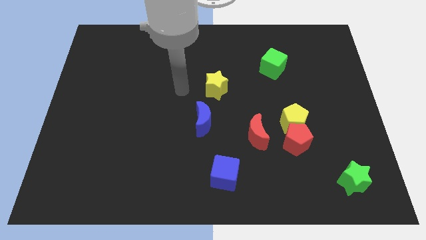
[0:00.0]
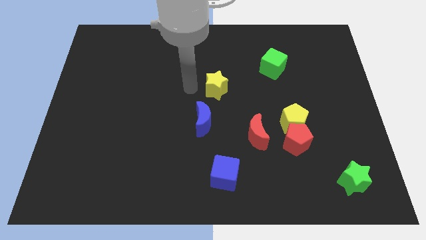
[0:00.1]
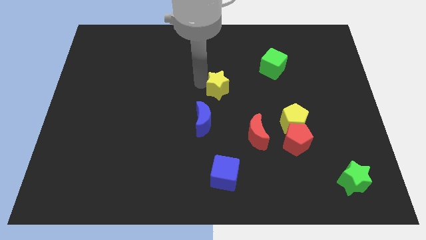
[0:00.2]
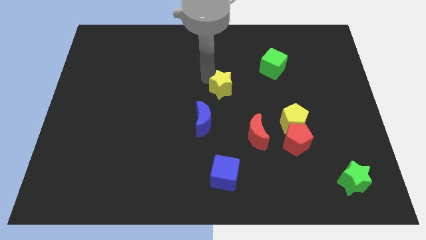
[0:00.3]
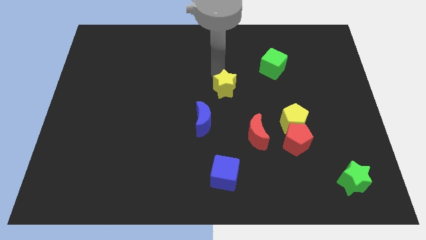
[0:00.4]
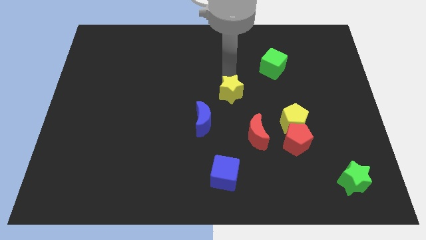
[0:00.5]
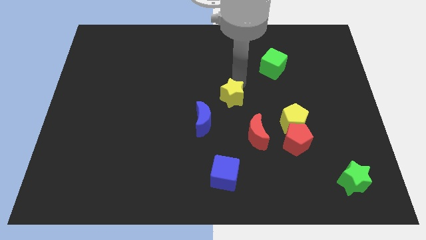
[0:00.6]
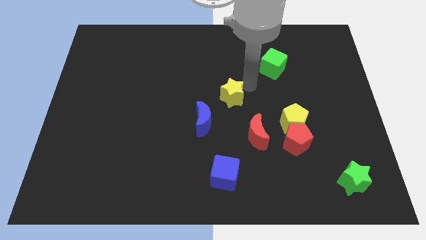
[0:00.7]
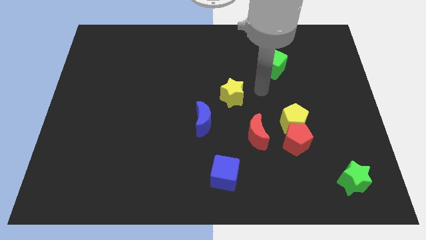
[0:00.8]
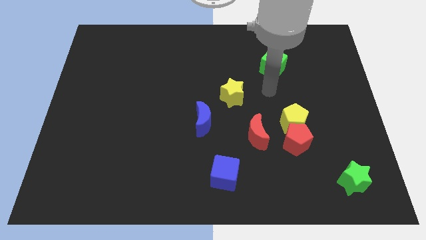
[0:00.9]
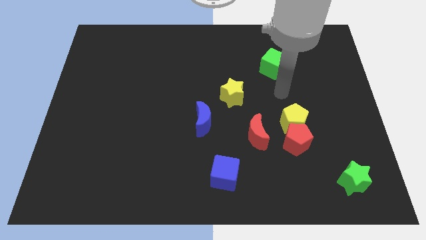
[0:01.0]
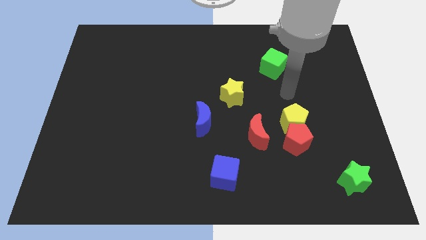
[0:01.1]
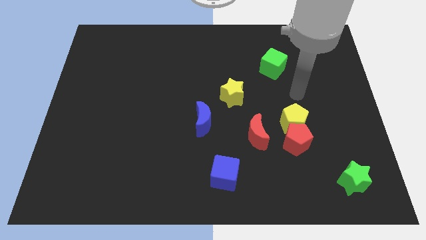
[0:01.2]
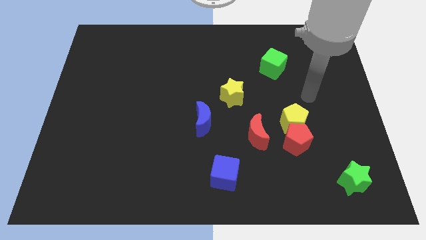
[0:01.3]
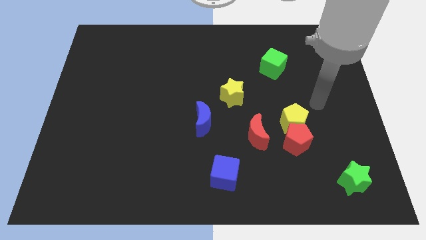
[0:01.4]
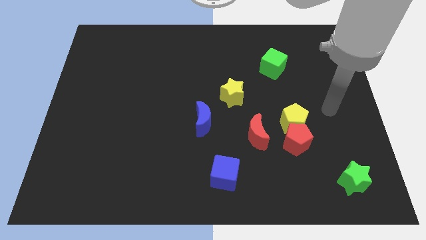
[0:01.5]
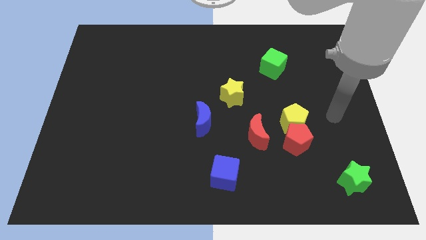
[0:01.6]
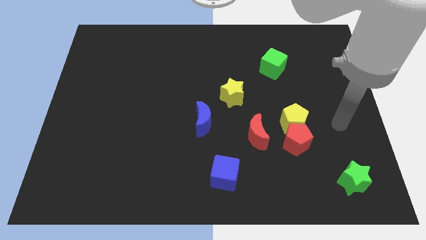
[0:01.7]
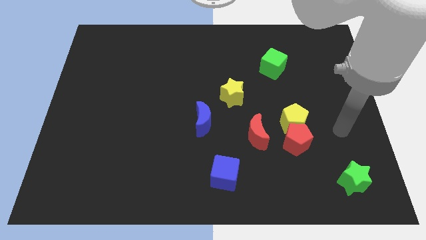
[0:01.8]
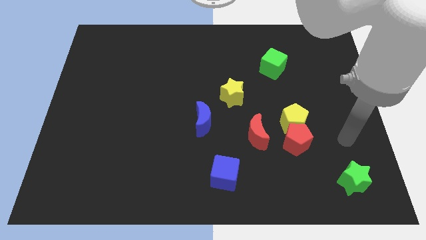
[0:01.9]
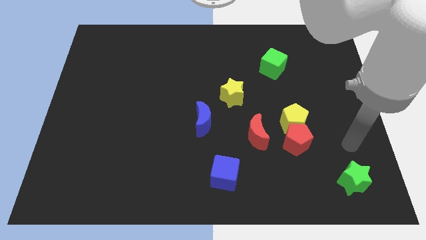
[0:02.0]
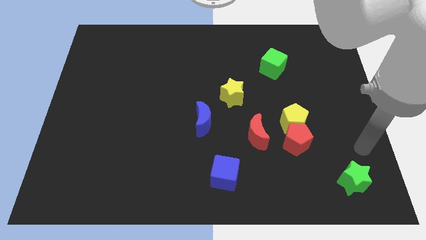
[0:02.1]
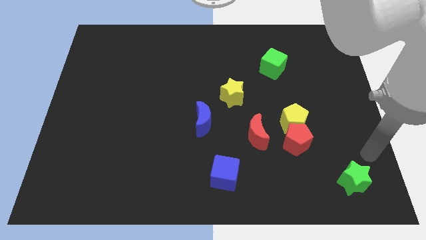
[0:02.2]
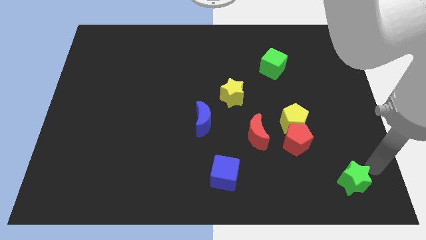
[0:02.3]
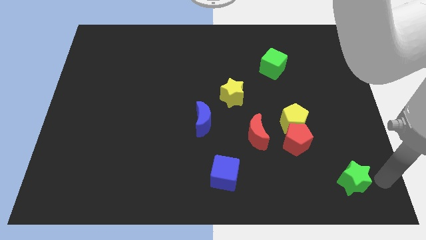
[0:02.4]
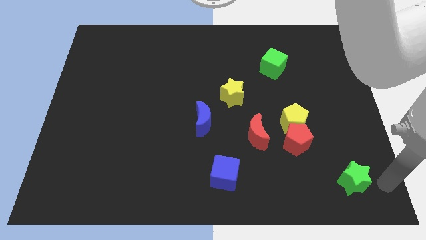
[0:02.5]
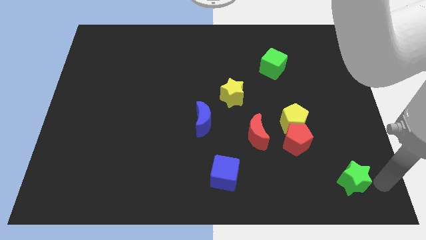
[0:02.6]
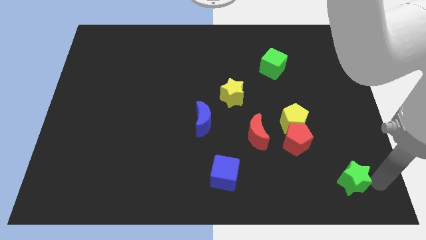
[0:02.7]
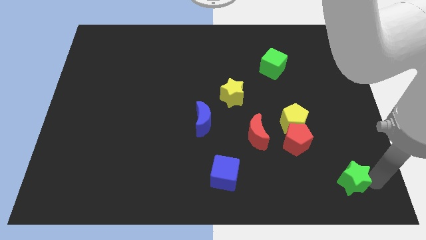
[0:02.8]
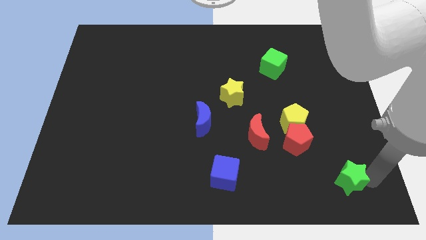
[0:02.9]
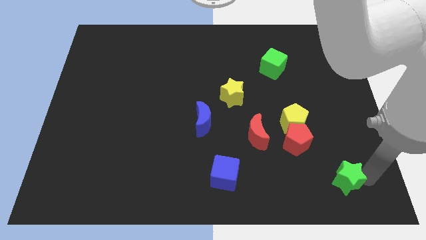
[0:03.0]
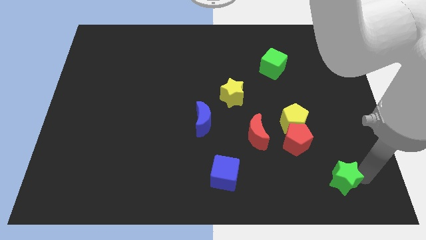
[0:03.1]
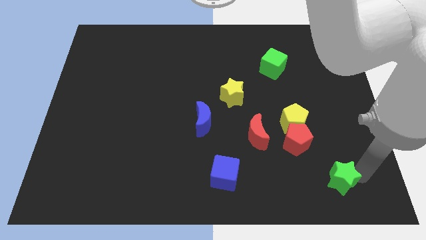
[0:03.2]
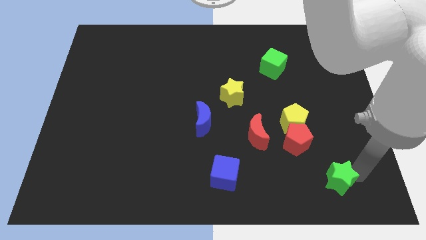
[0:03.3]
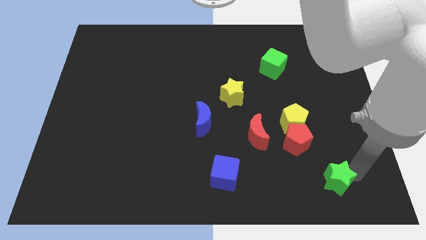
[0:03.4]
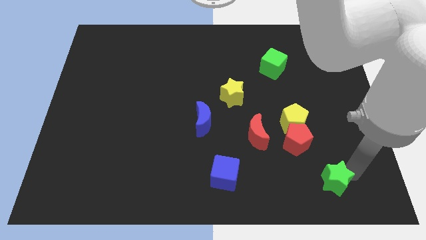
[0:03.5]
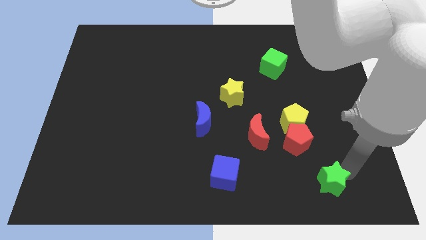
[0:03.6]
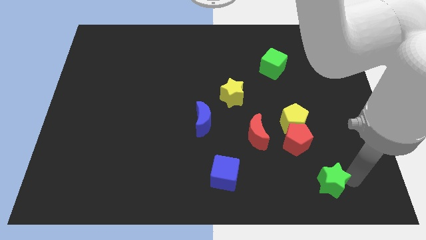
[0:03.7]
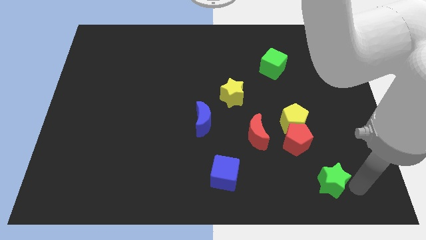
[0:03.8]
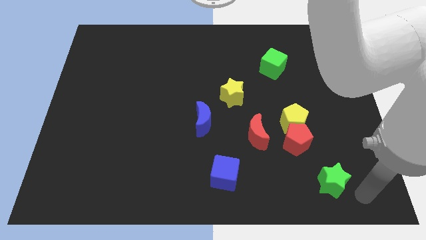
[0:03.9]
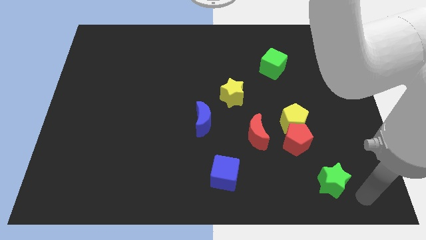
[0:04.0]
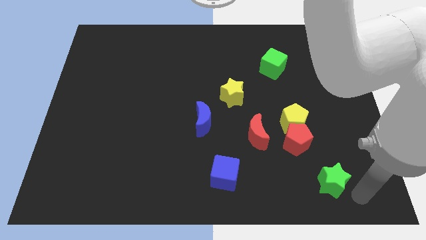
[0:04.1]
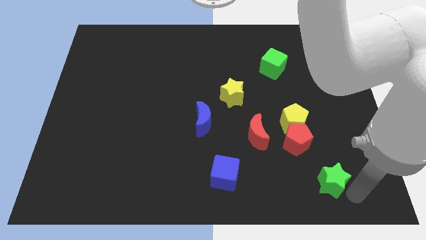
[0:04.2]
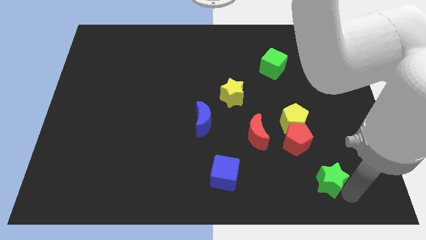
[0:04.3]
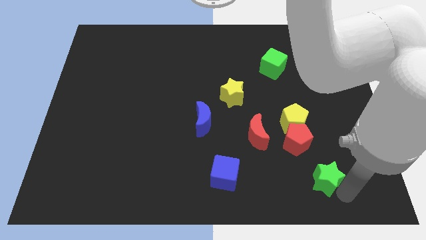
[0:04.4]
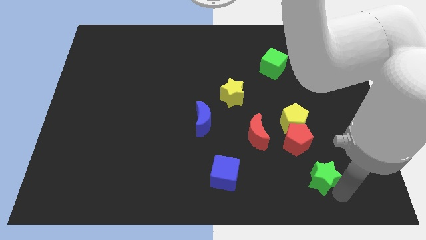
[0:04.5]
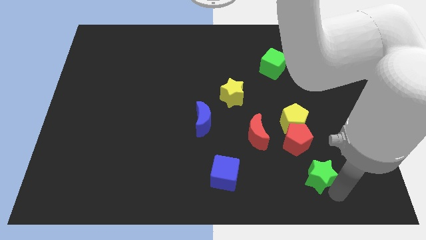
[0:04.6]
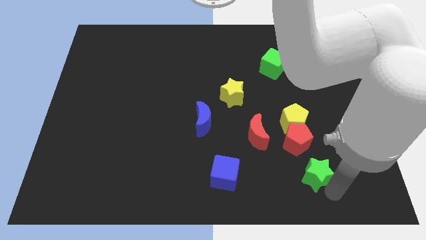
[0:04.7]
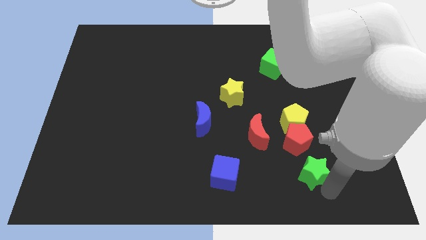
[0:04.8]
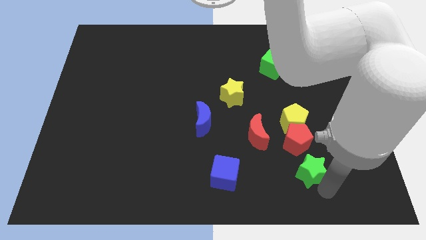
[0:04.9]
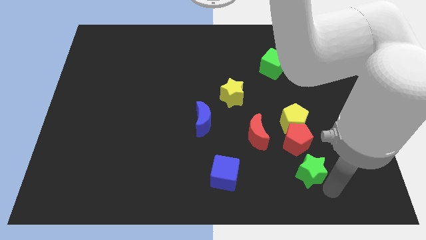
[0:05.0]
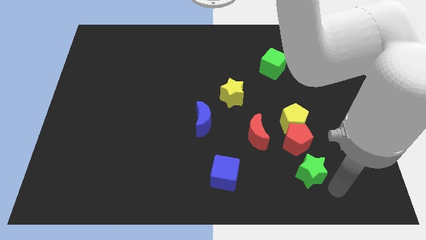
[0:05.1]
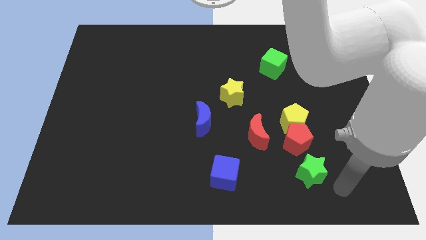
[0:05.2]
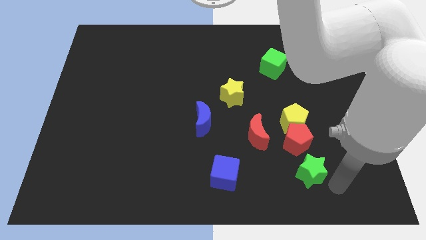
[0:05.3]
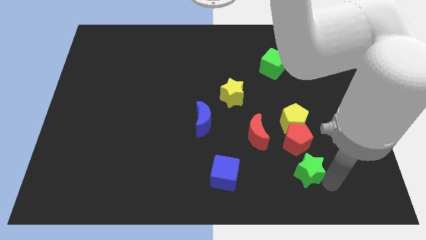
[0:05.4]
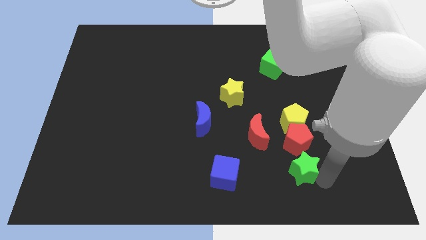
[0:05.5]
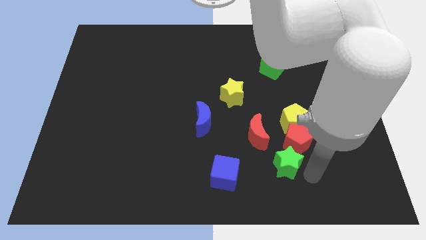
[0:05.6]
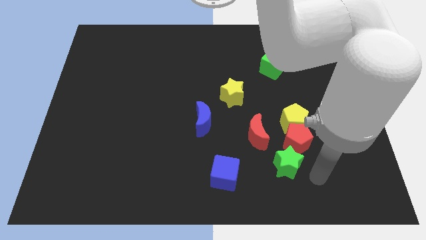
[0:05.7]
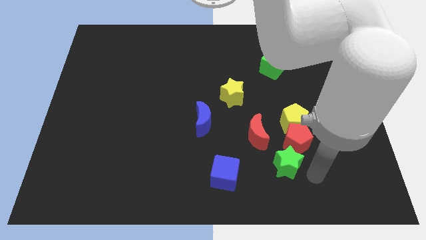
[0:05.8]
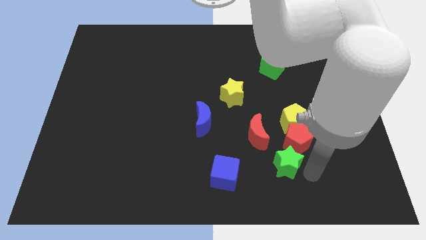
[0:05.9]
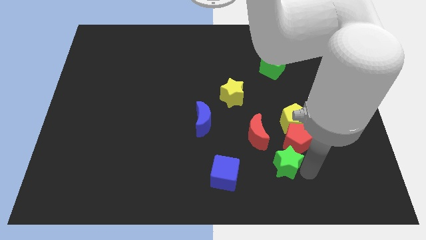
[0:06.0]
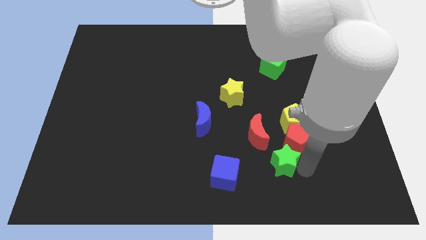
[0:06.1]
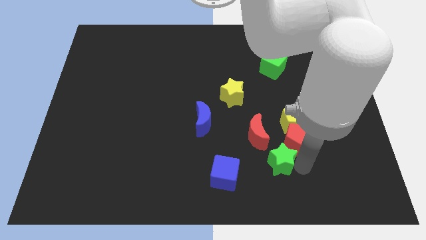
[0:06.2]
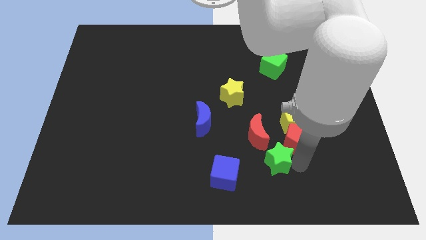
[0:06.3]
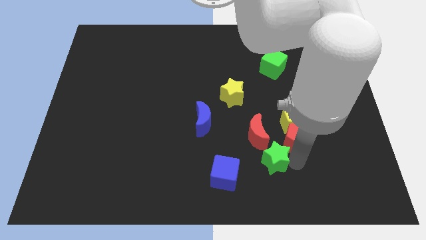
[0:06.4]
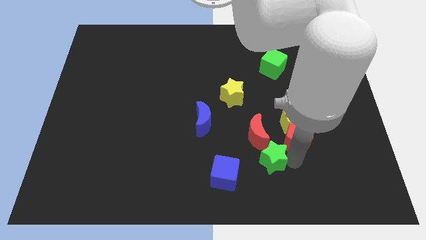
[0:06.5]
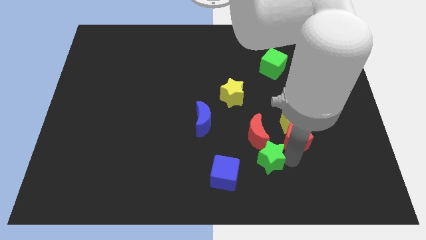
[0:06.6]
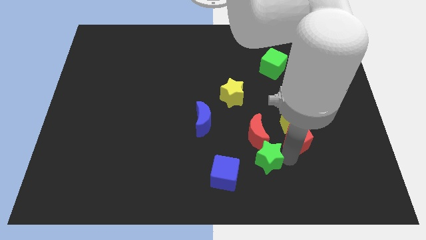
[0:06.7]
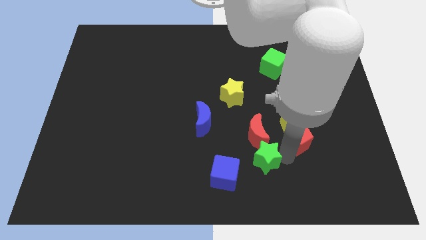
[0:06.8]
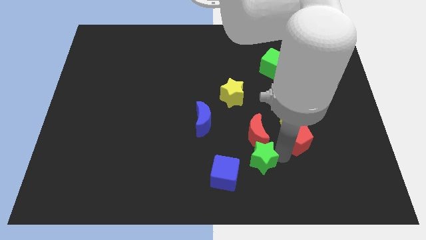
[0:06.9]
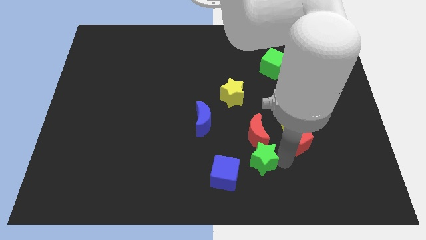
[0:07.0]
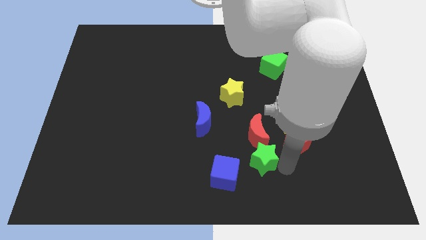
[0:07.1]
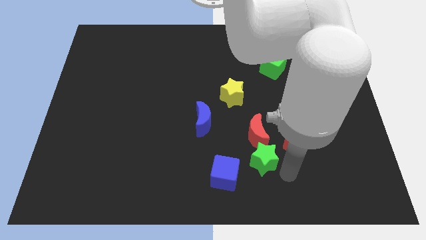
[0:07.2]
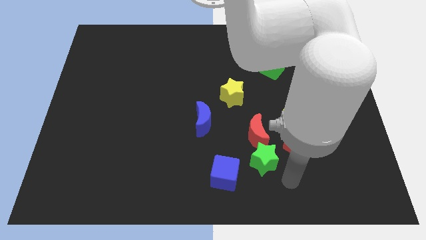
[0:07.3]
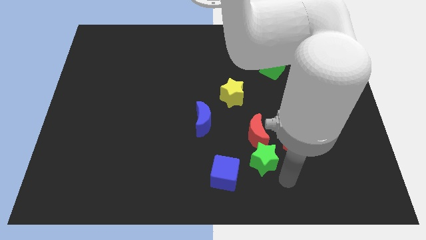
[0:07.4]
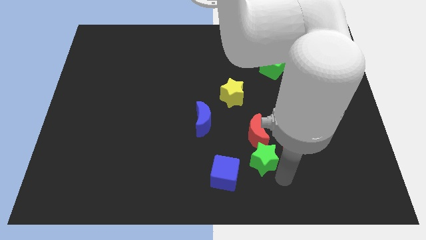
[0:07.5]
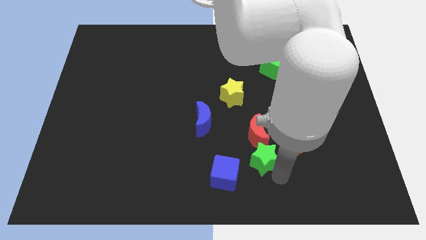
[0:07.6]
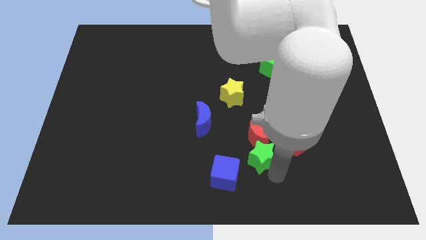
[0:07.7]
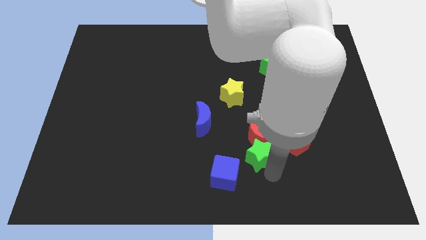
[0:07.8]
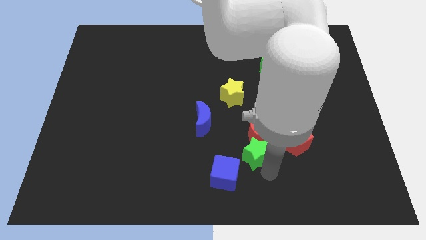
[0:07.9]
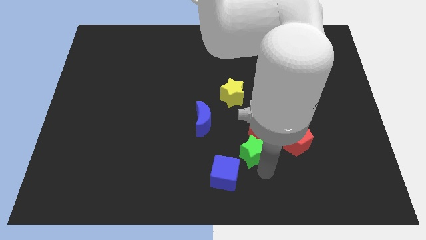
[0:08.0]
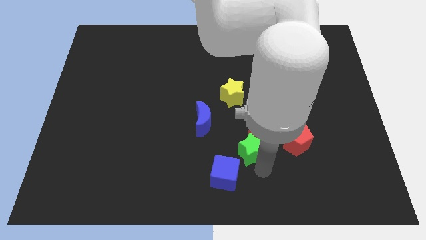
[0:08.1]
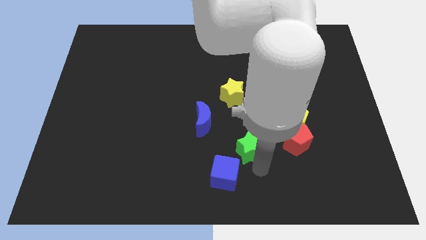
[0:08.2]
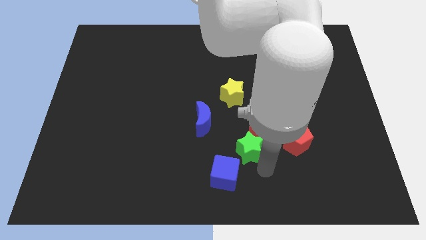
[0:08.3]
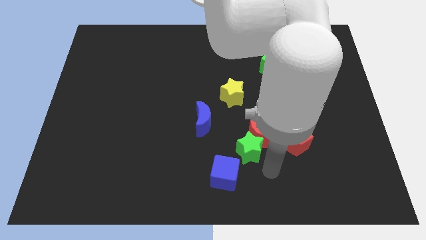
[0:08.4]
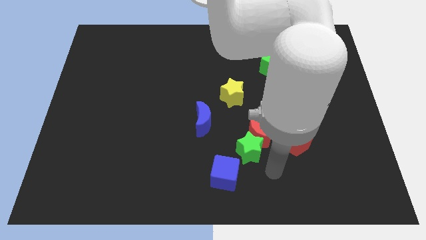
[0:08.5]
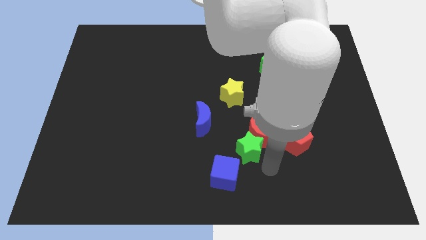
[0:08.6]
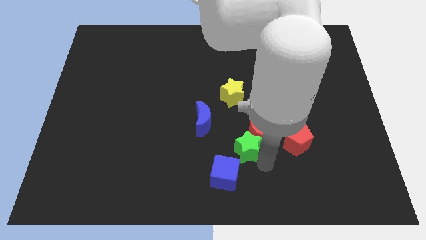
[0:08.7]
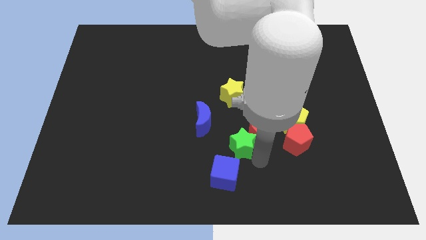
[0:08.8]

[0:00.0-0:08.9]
move the green star to the top of the blue cube
